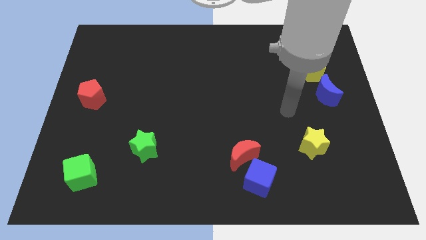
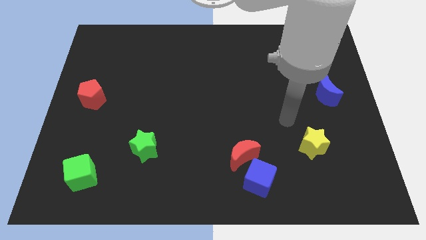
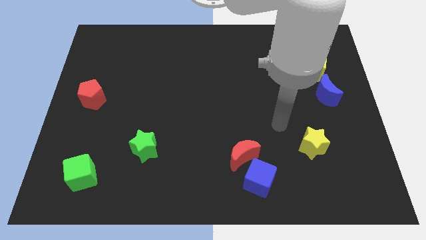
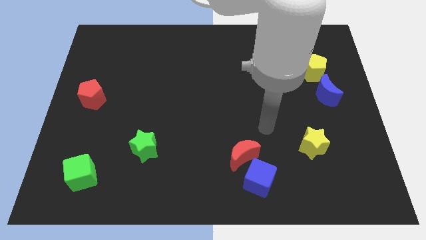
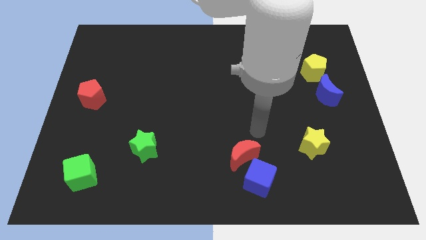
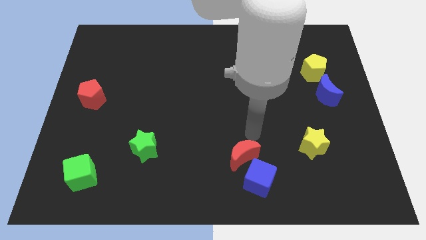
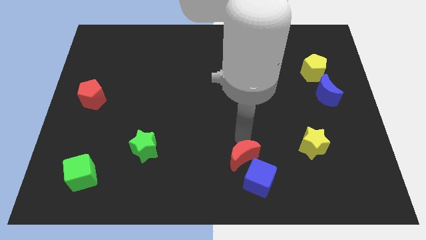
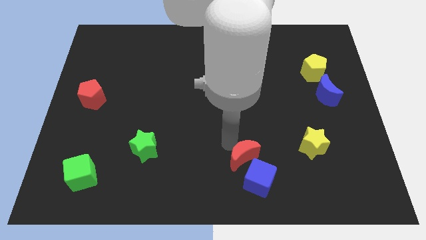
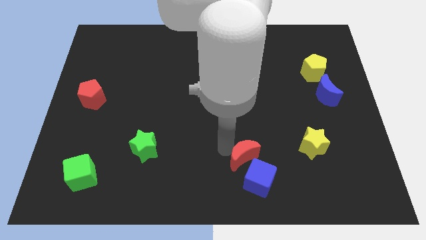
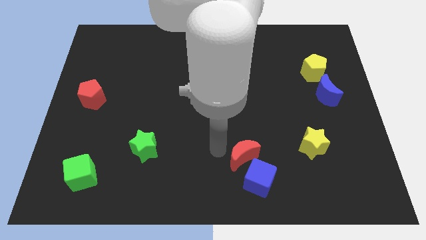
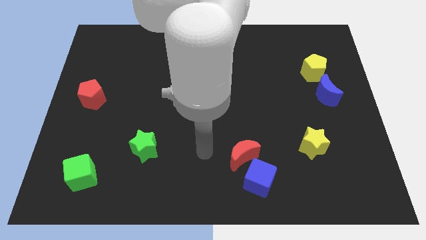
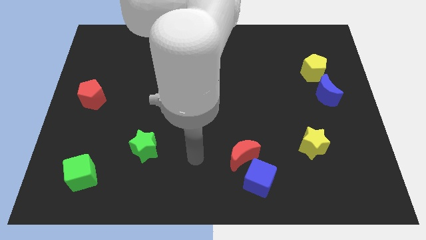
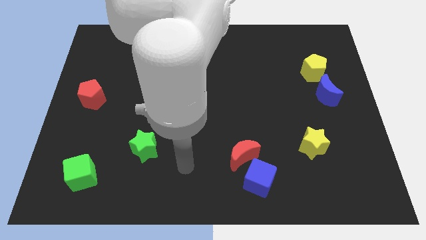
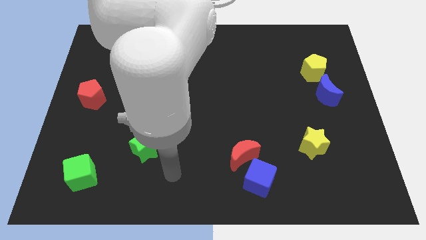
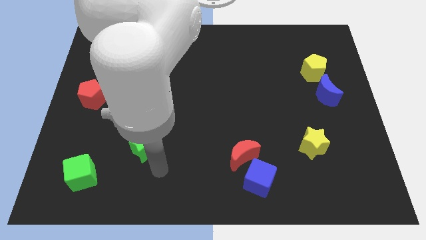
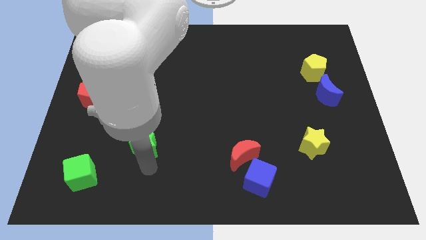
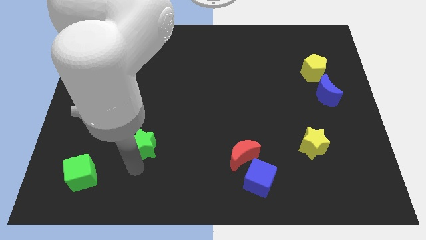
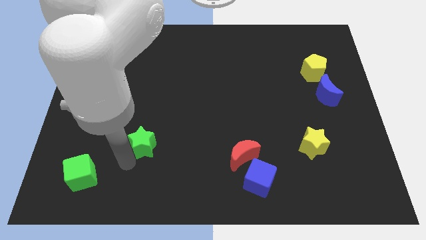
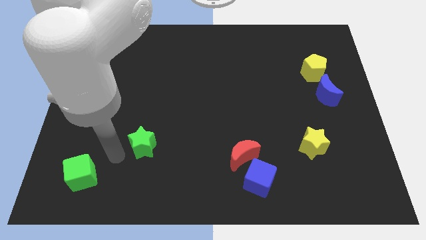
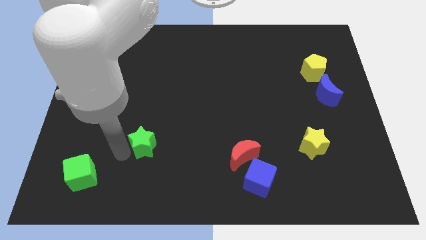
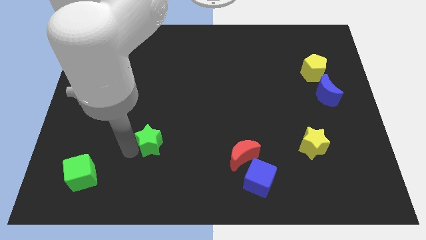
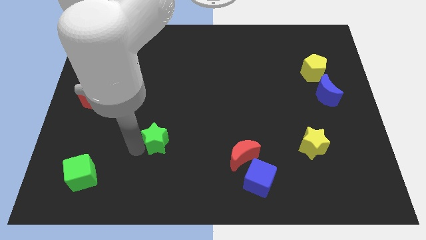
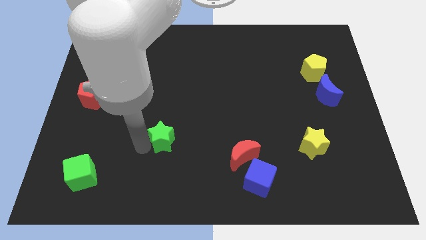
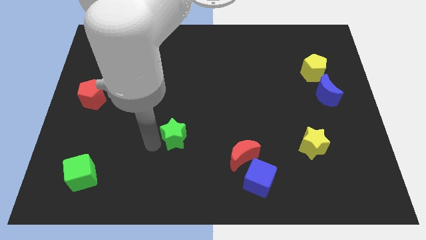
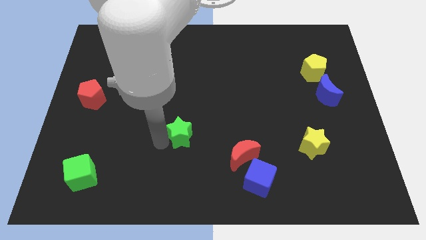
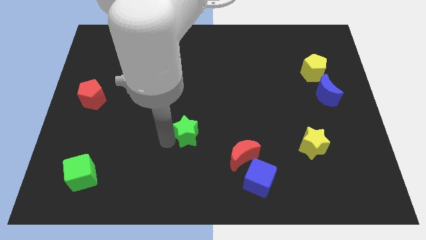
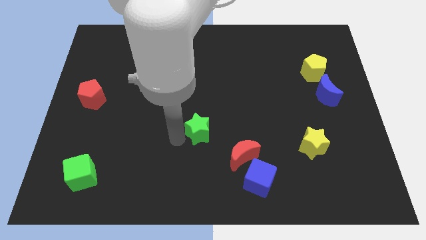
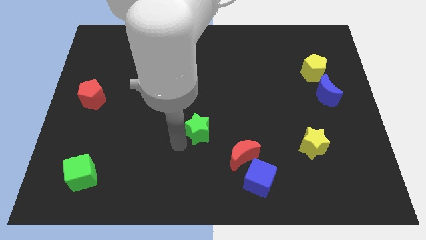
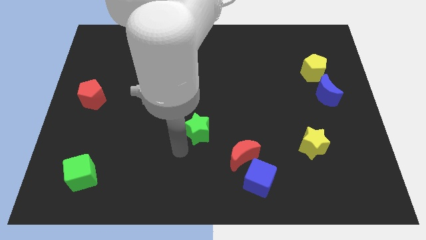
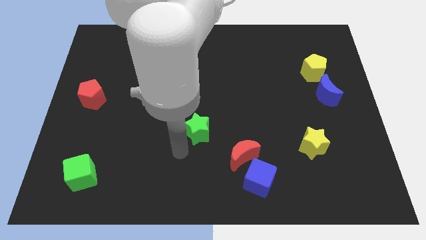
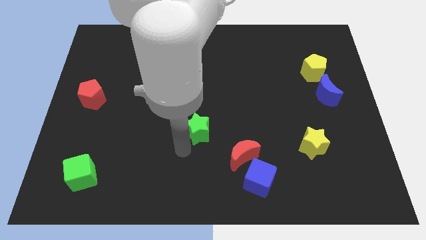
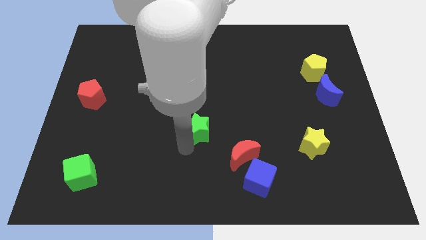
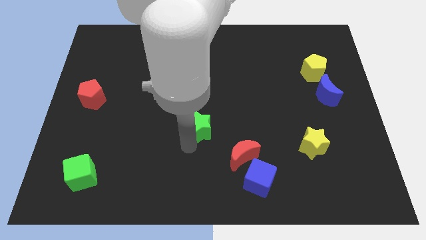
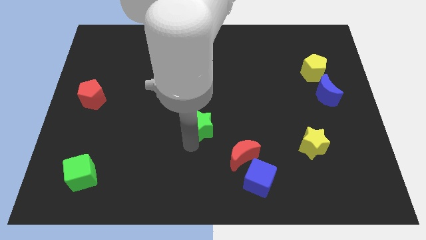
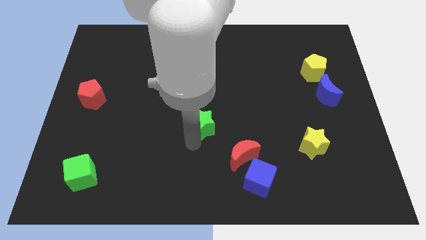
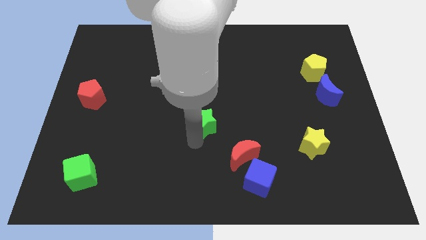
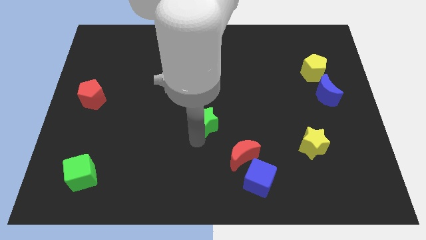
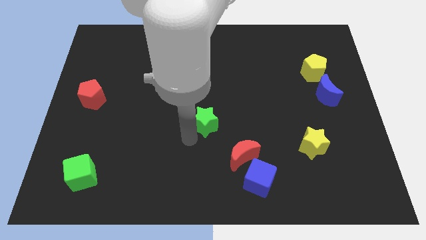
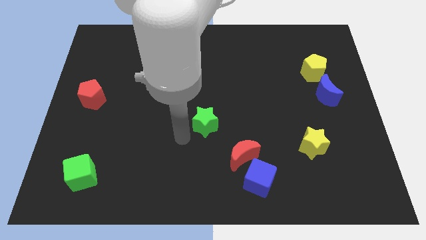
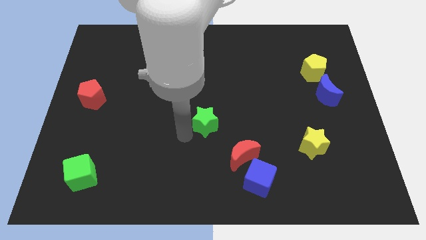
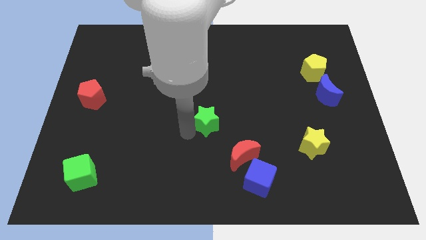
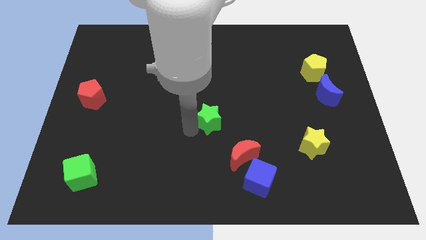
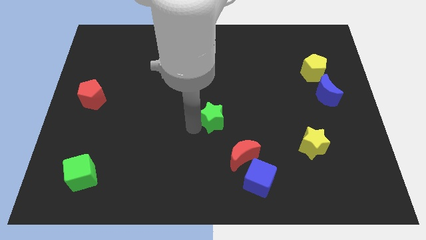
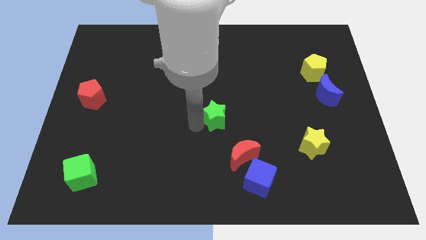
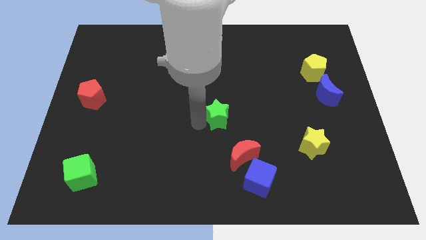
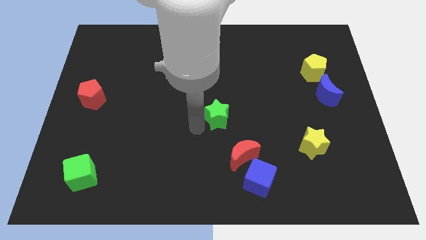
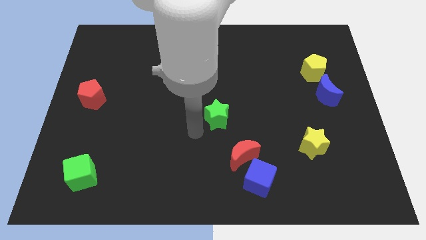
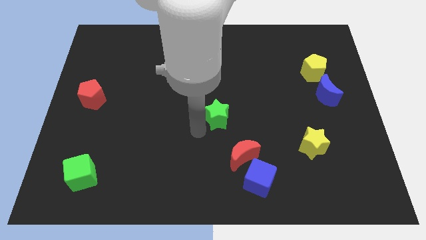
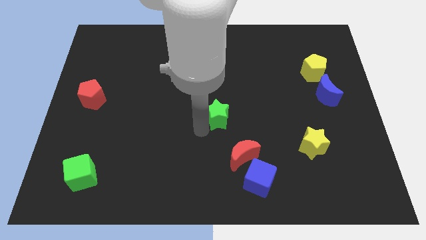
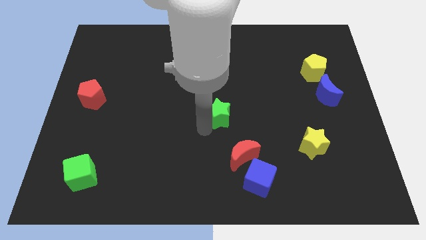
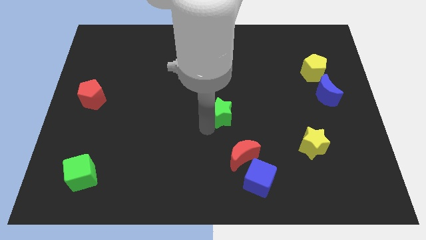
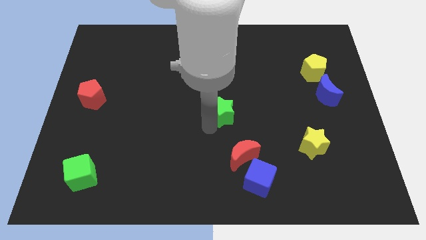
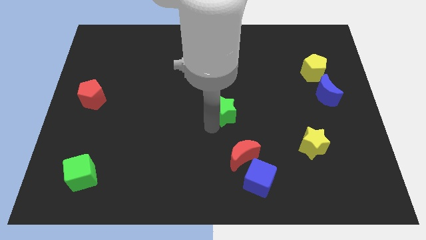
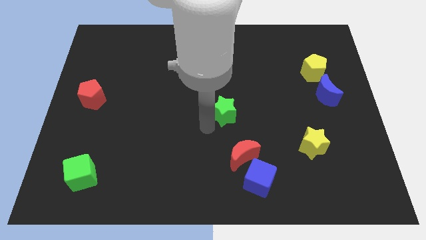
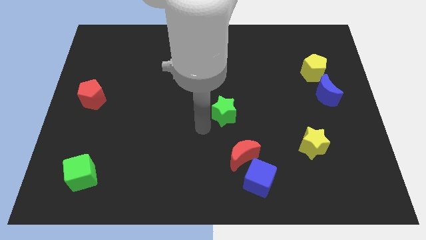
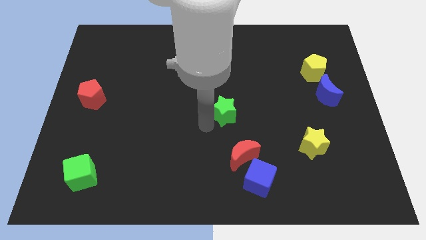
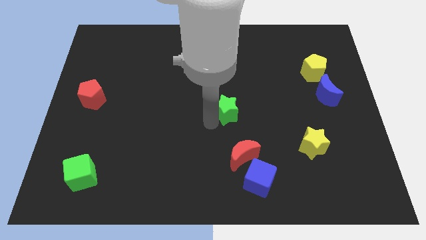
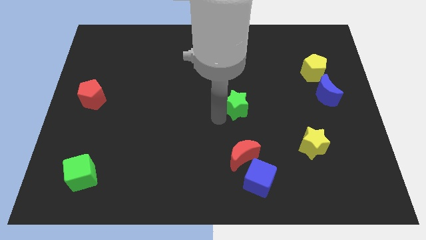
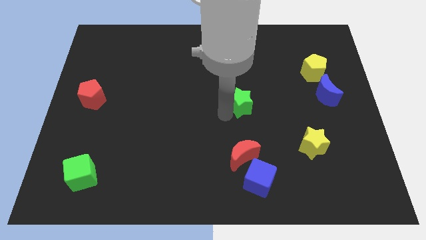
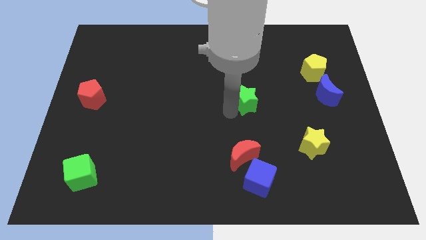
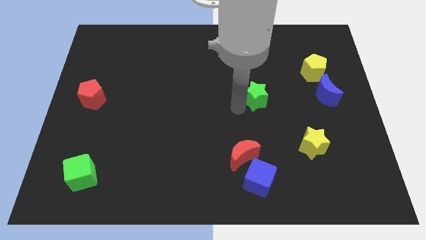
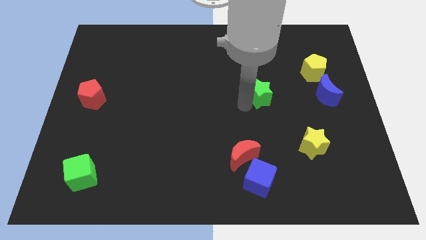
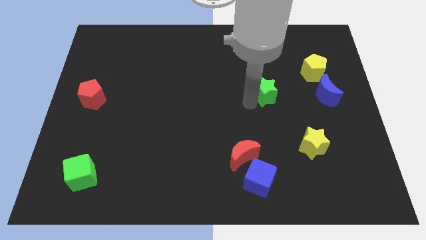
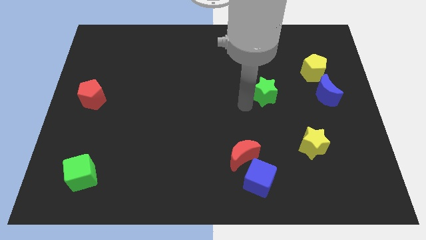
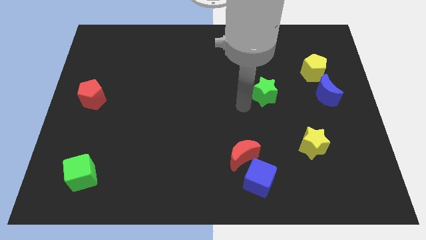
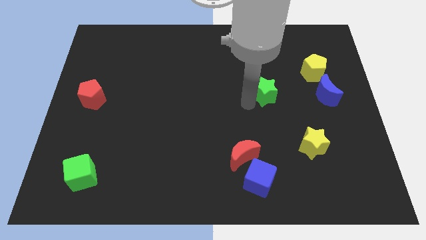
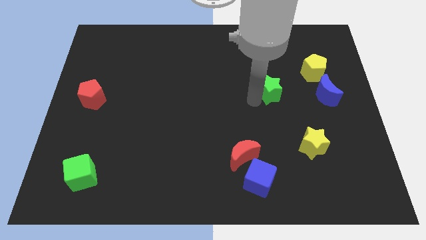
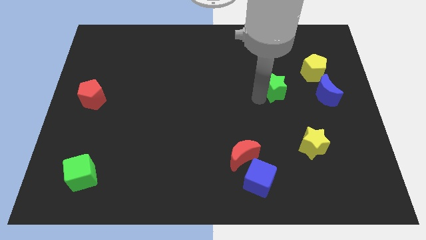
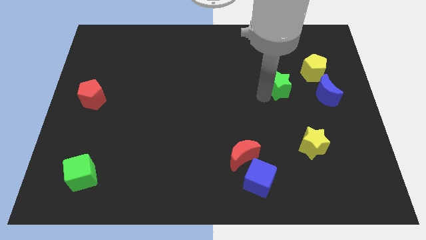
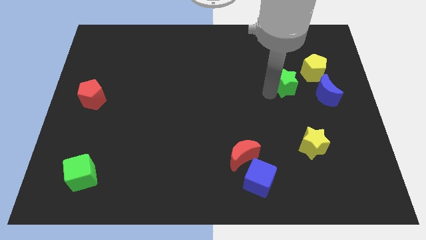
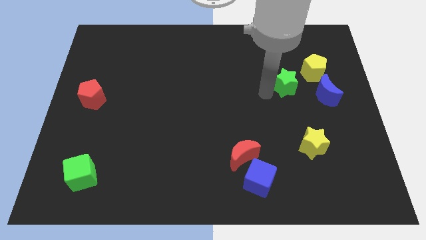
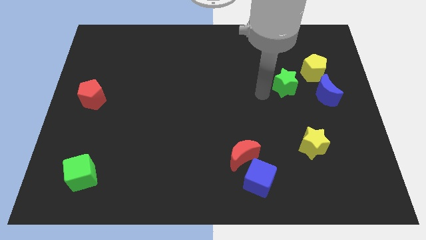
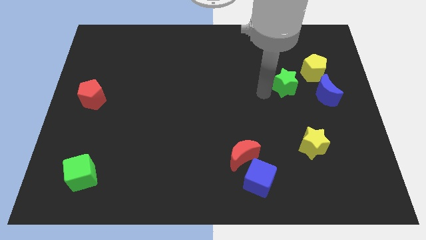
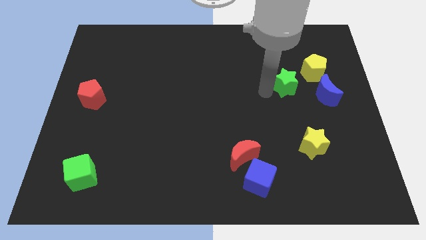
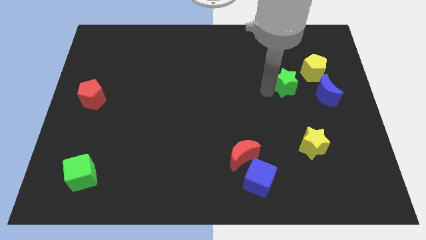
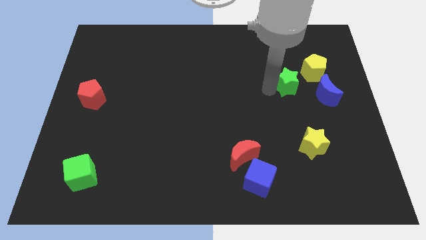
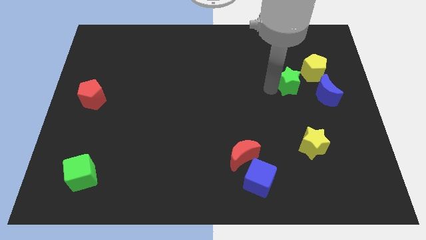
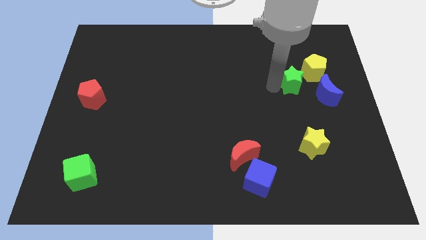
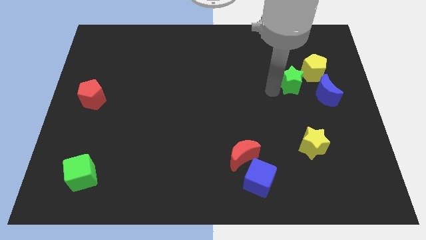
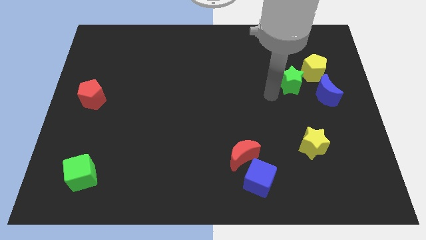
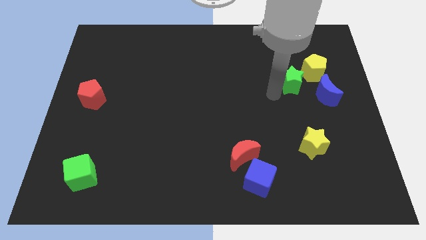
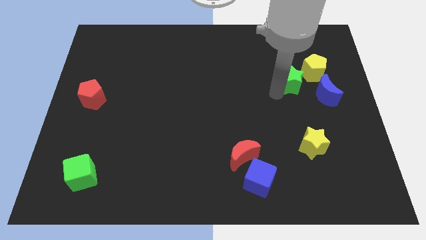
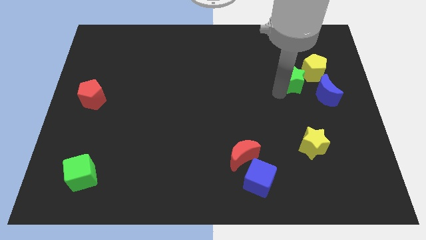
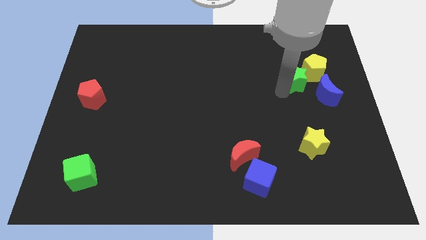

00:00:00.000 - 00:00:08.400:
slide the green star to the yellow pentagon
